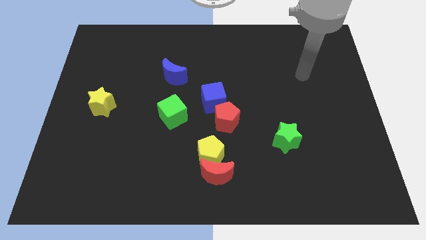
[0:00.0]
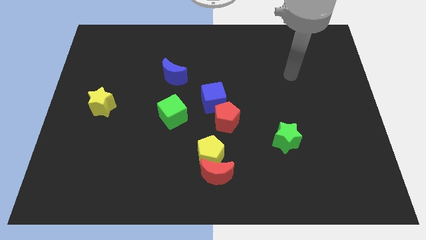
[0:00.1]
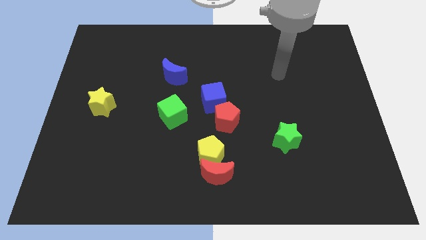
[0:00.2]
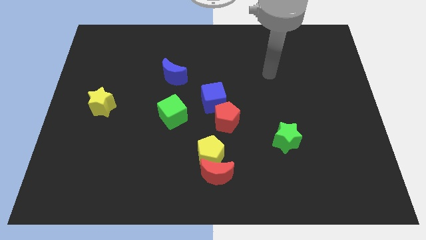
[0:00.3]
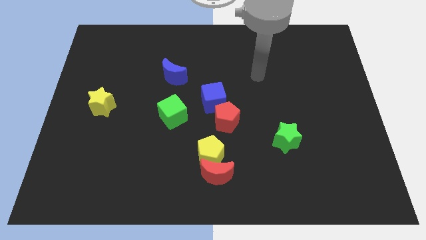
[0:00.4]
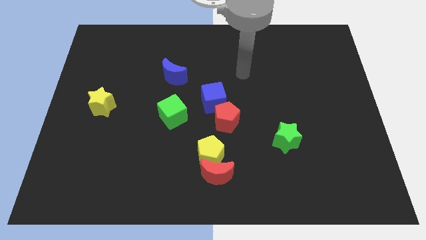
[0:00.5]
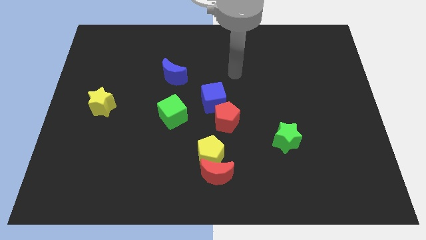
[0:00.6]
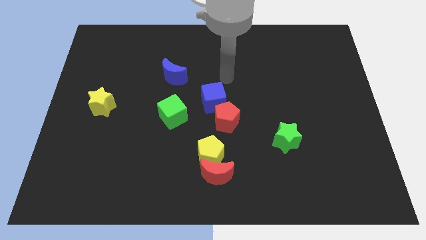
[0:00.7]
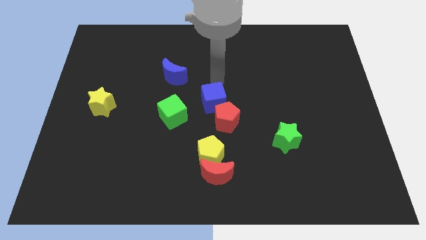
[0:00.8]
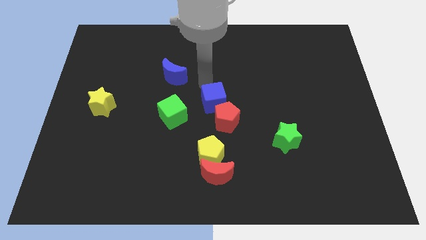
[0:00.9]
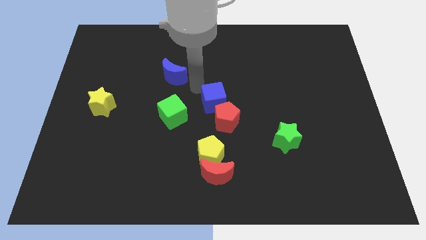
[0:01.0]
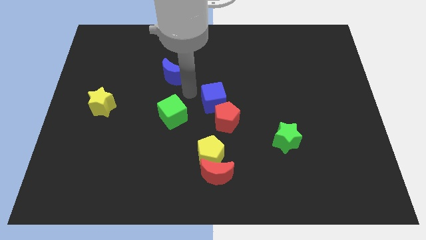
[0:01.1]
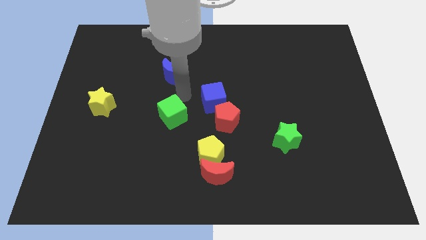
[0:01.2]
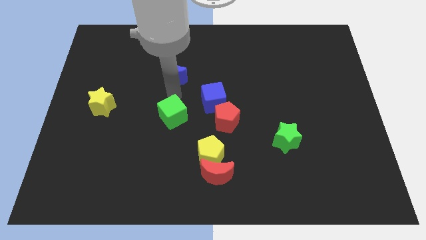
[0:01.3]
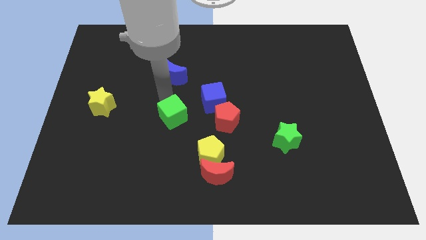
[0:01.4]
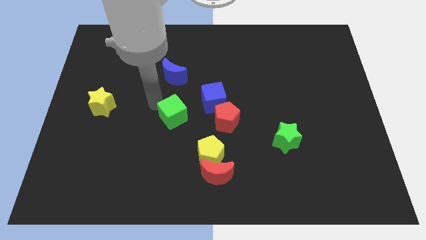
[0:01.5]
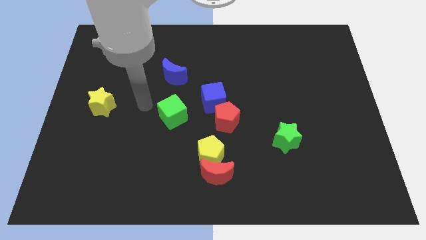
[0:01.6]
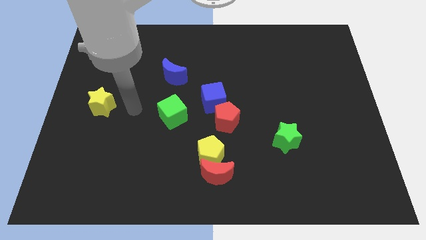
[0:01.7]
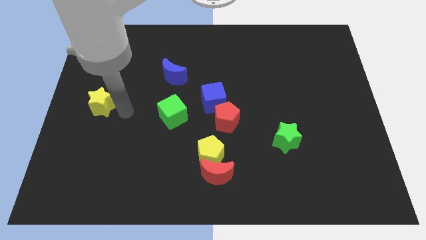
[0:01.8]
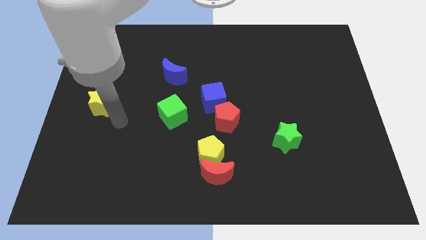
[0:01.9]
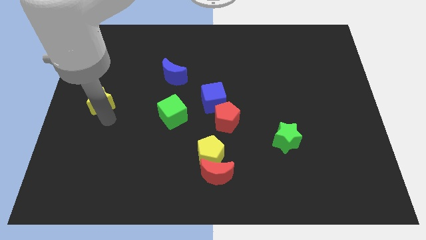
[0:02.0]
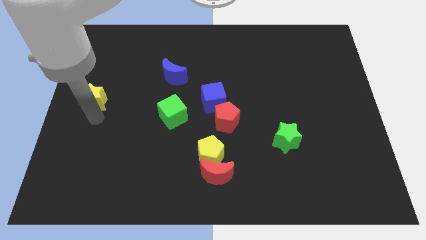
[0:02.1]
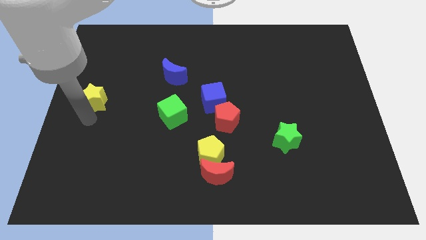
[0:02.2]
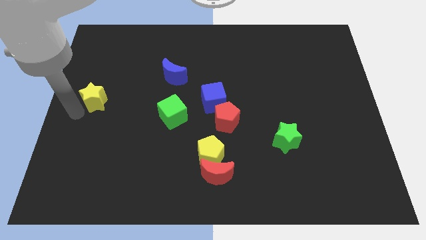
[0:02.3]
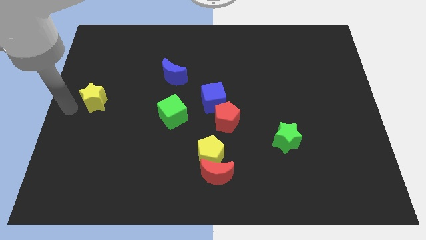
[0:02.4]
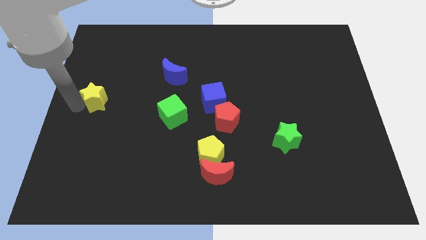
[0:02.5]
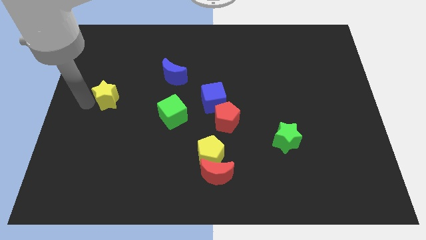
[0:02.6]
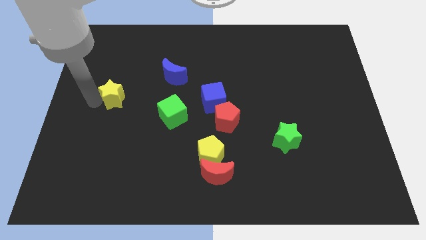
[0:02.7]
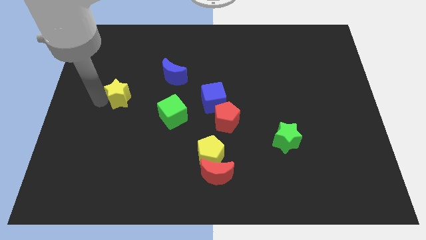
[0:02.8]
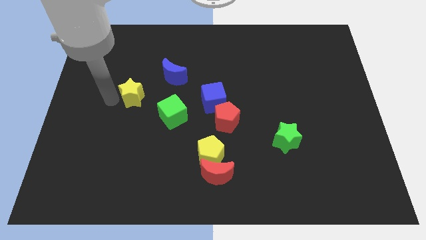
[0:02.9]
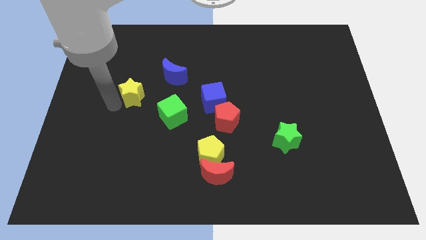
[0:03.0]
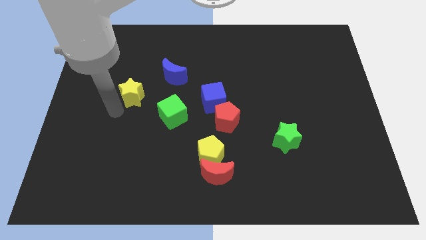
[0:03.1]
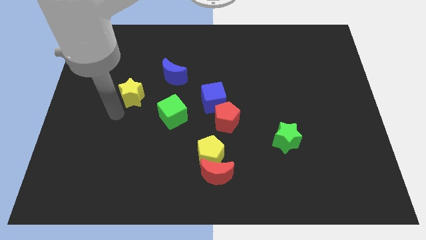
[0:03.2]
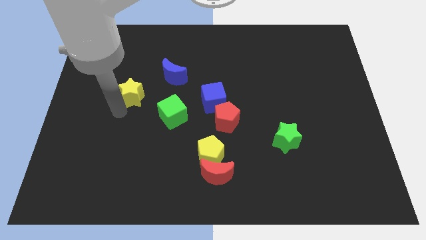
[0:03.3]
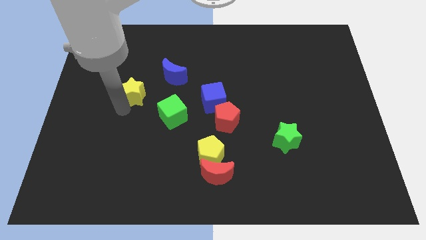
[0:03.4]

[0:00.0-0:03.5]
slide the yellow star up and right diagonally a little

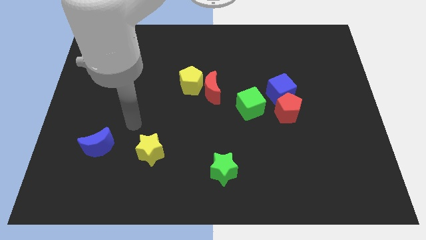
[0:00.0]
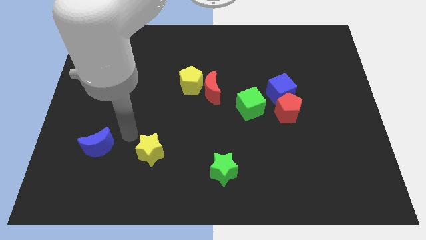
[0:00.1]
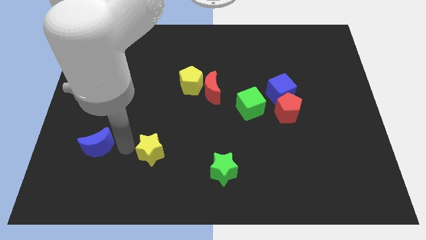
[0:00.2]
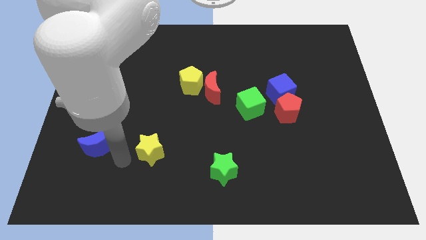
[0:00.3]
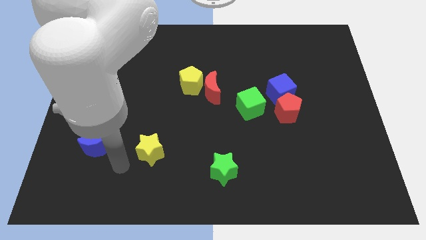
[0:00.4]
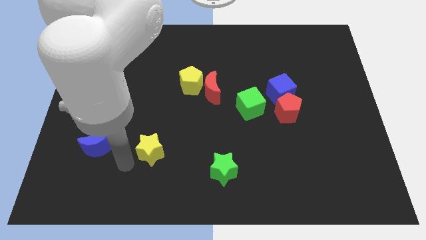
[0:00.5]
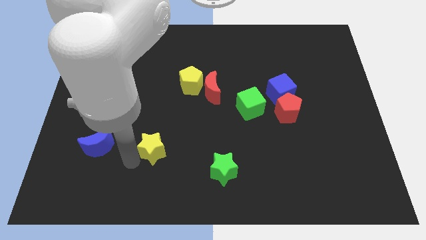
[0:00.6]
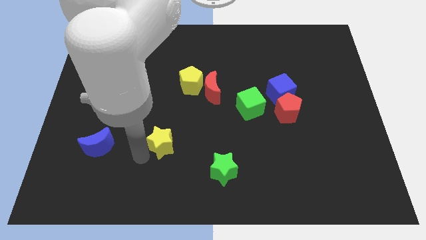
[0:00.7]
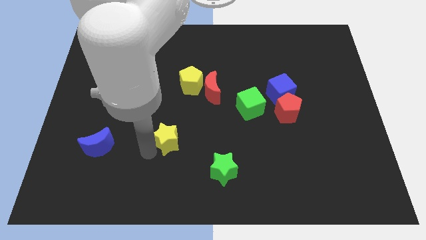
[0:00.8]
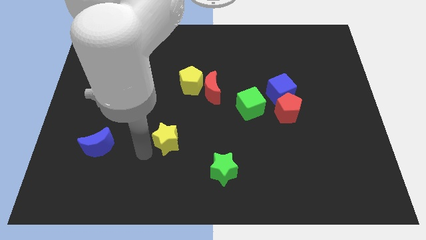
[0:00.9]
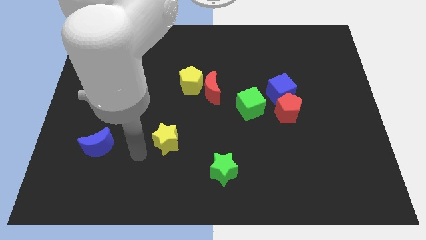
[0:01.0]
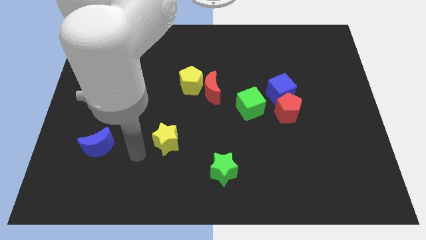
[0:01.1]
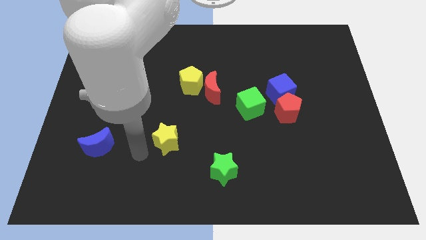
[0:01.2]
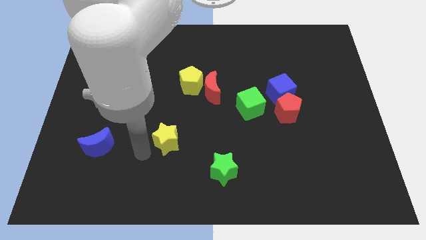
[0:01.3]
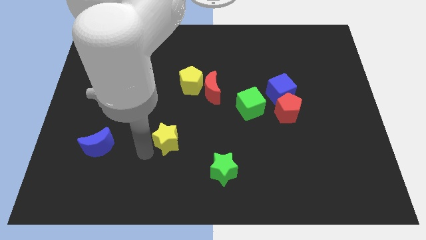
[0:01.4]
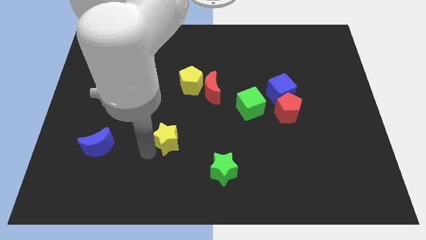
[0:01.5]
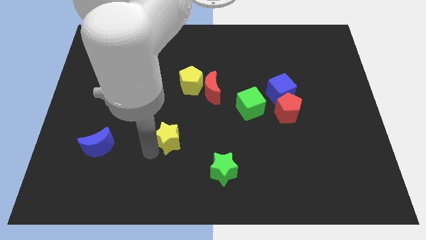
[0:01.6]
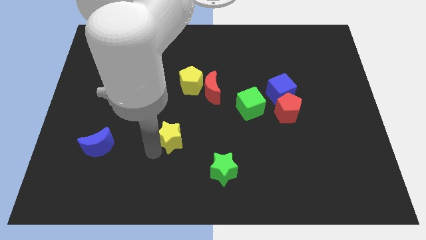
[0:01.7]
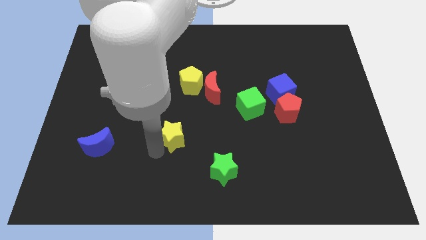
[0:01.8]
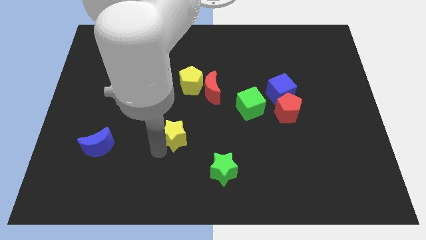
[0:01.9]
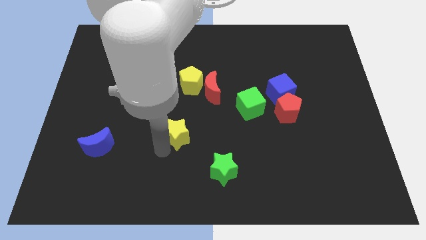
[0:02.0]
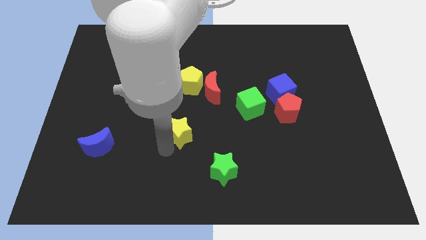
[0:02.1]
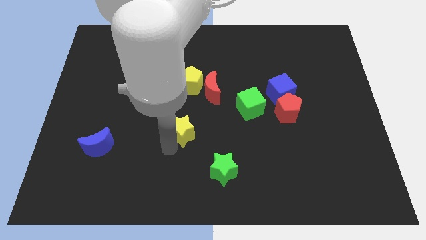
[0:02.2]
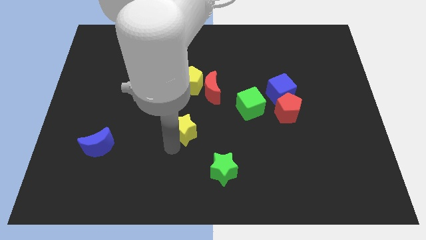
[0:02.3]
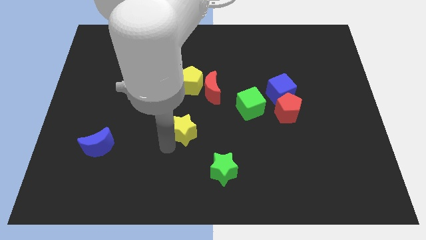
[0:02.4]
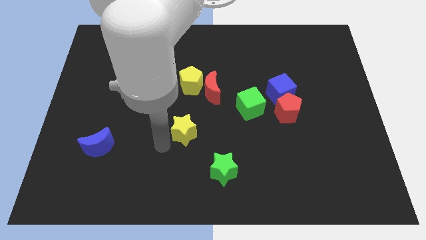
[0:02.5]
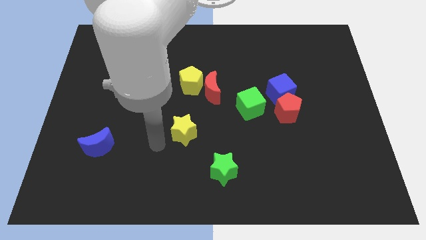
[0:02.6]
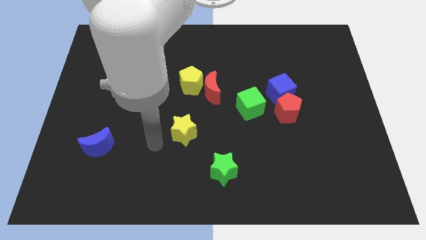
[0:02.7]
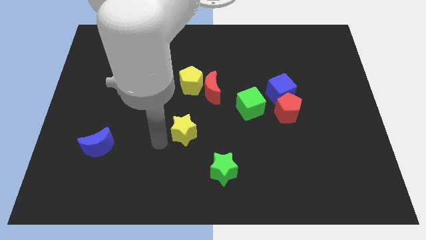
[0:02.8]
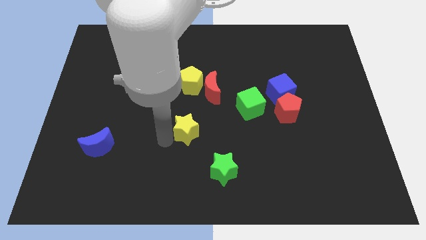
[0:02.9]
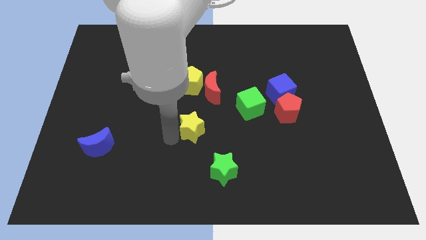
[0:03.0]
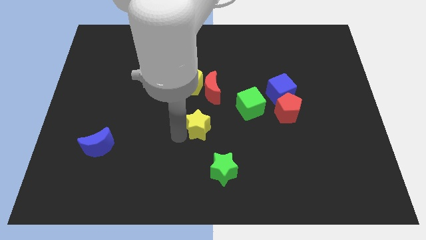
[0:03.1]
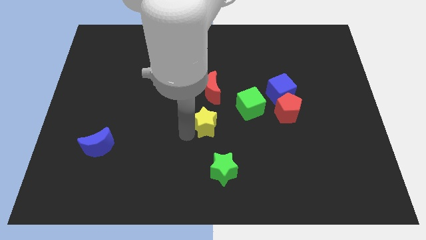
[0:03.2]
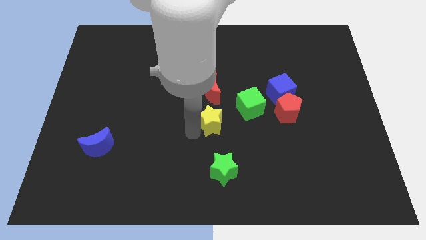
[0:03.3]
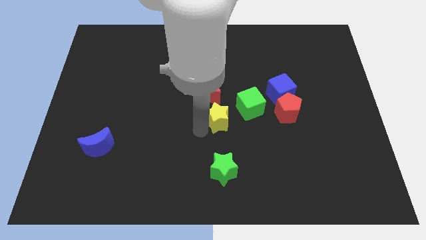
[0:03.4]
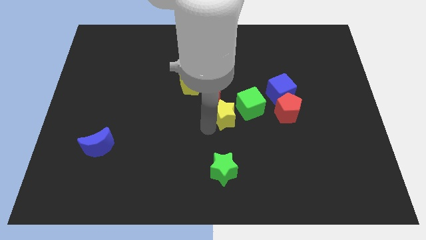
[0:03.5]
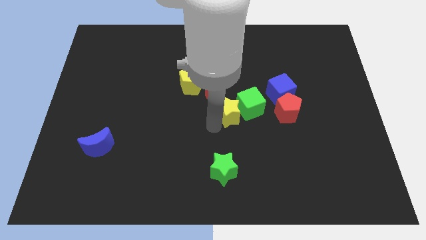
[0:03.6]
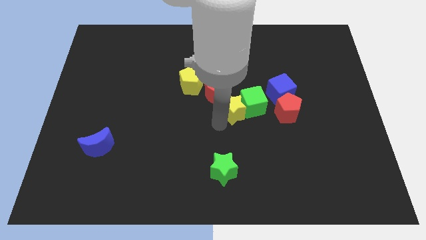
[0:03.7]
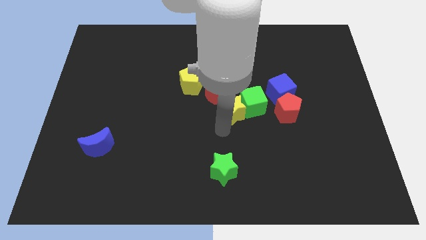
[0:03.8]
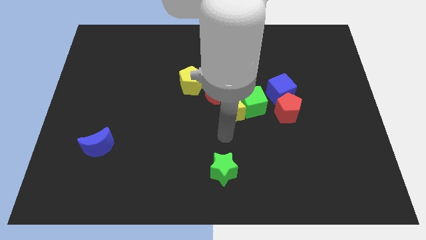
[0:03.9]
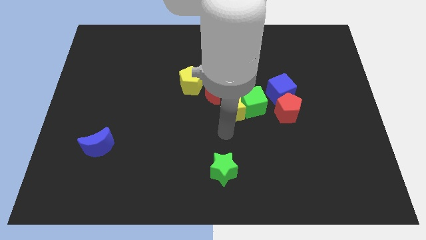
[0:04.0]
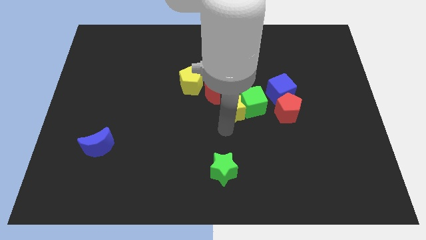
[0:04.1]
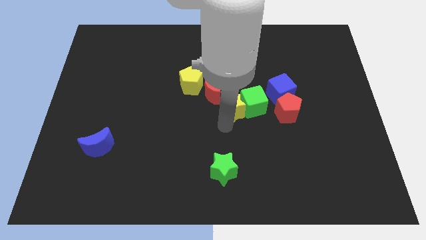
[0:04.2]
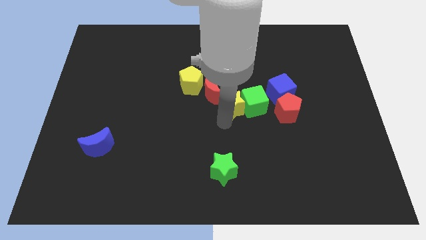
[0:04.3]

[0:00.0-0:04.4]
slide the yellow star upwards and to the right

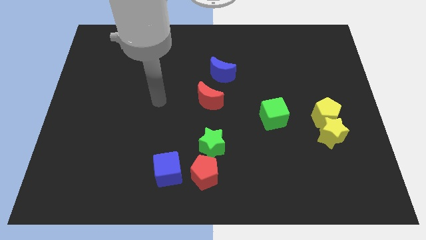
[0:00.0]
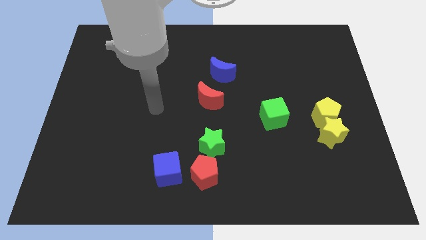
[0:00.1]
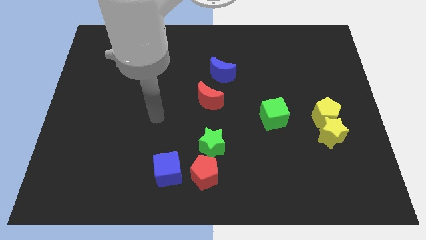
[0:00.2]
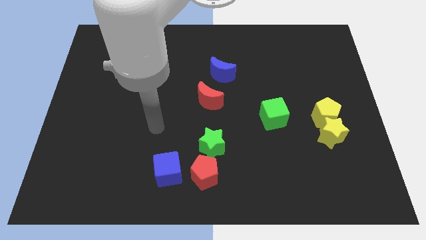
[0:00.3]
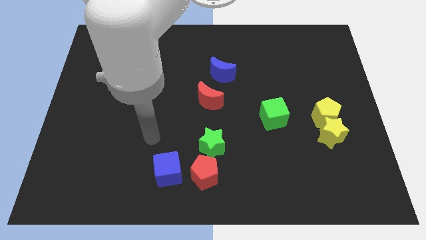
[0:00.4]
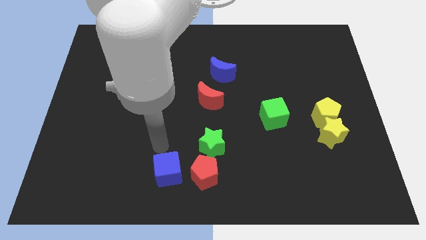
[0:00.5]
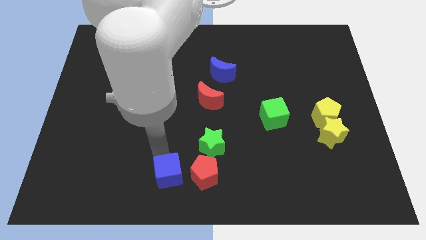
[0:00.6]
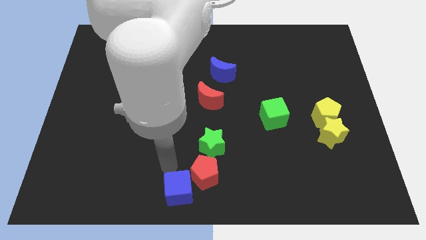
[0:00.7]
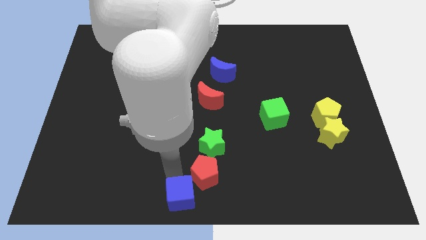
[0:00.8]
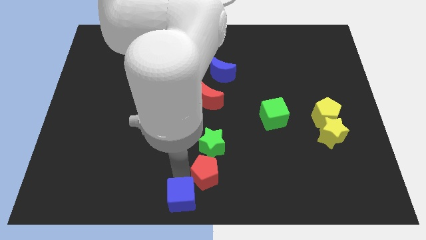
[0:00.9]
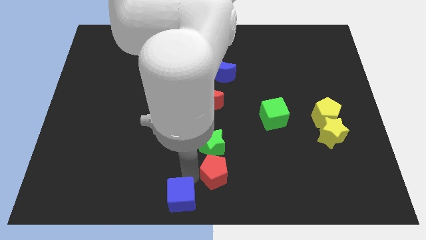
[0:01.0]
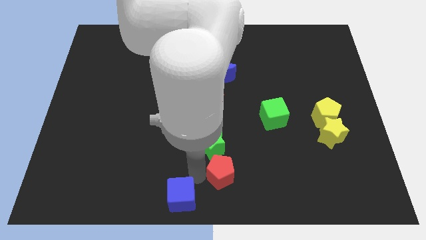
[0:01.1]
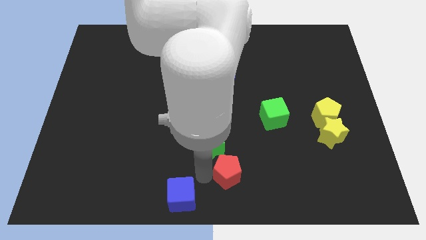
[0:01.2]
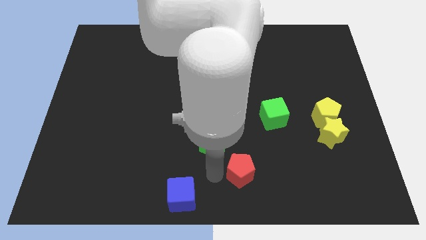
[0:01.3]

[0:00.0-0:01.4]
slightly slide the red pentagon right
